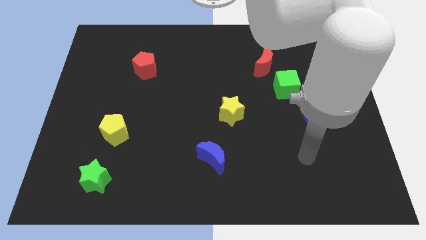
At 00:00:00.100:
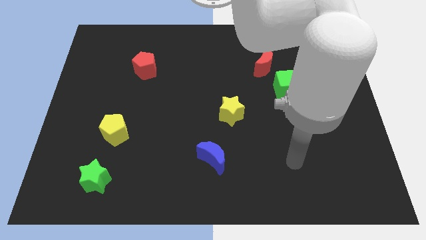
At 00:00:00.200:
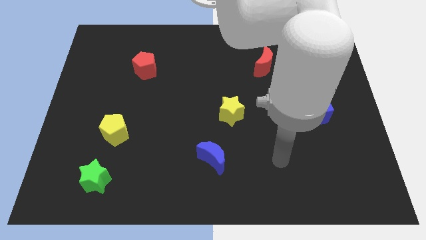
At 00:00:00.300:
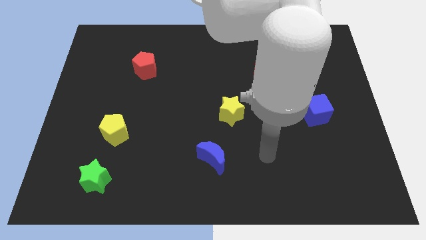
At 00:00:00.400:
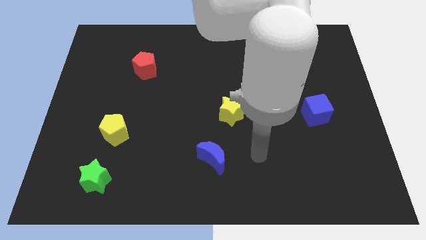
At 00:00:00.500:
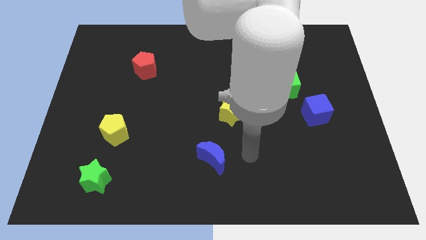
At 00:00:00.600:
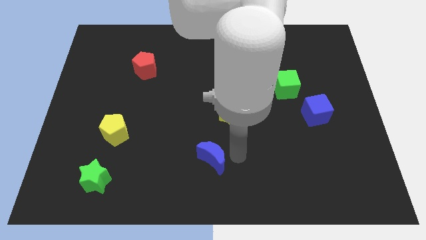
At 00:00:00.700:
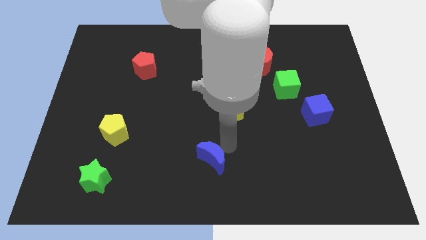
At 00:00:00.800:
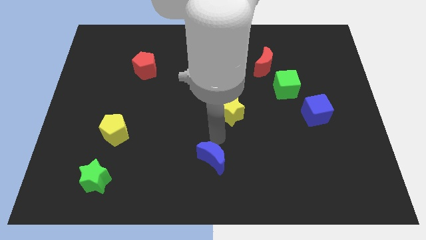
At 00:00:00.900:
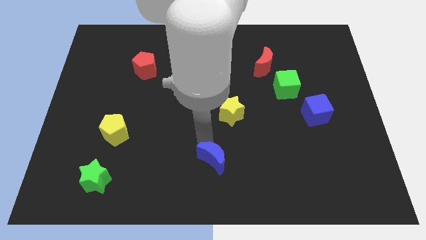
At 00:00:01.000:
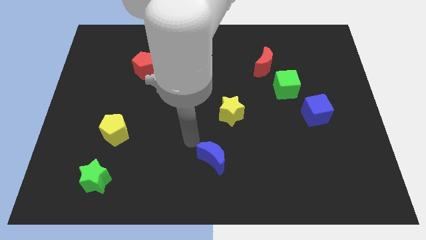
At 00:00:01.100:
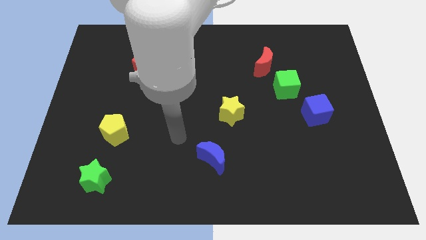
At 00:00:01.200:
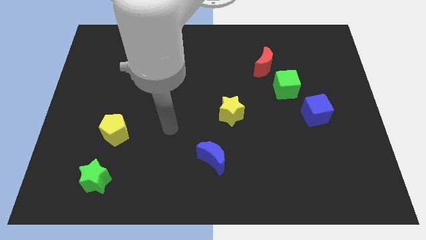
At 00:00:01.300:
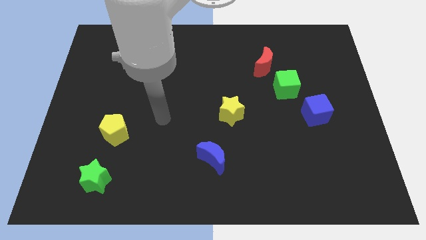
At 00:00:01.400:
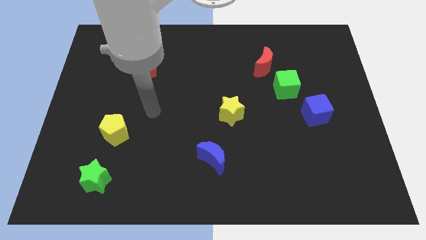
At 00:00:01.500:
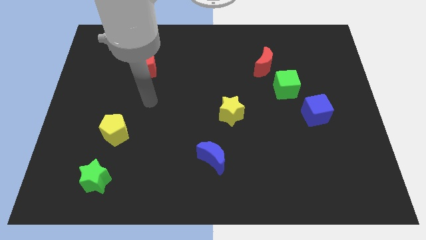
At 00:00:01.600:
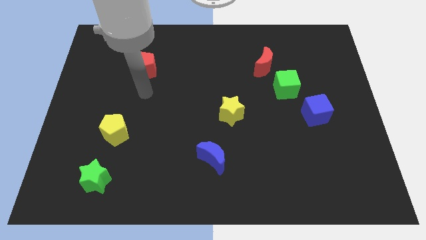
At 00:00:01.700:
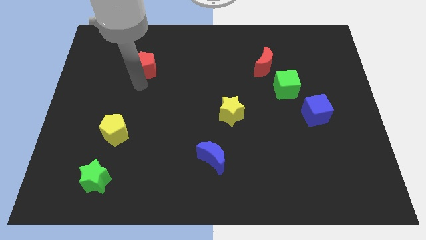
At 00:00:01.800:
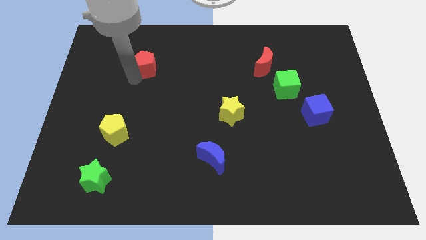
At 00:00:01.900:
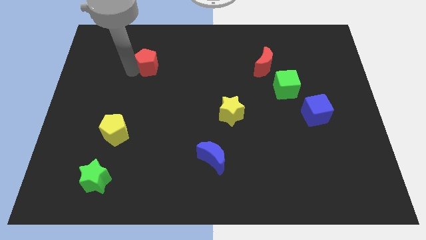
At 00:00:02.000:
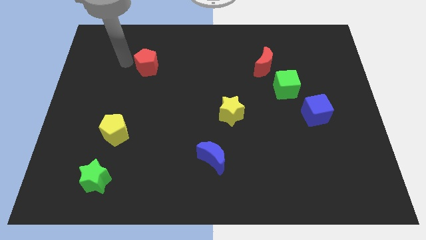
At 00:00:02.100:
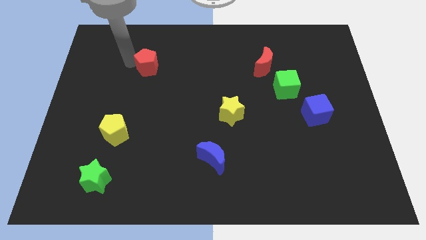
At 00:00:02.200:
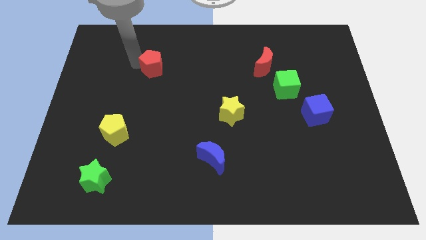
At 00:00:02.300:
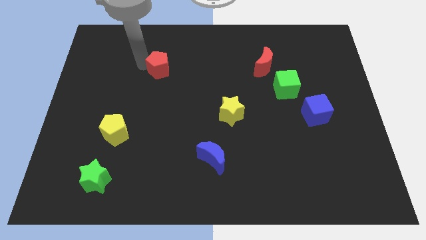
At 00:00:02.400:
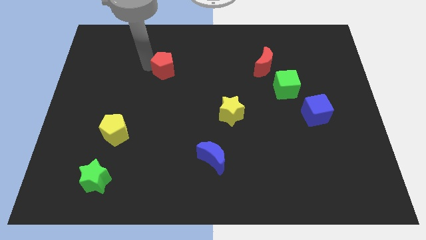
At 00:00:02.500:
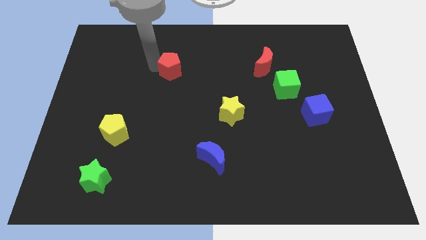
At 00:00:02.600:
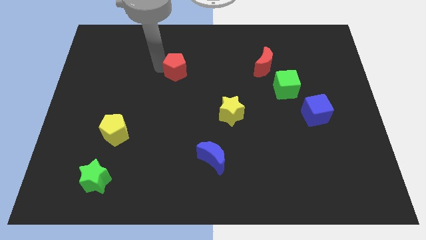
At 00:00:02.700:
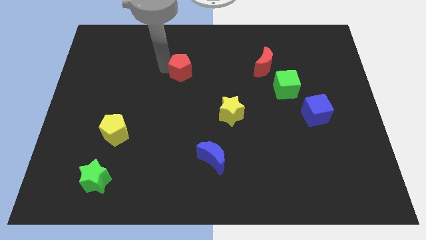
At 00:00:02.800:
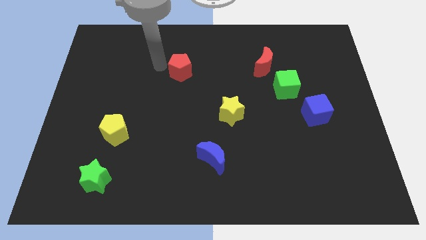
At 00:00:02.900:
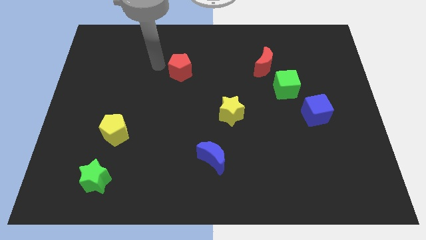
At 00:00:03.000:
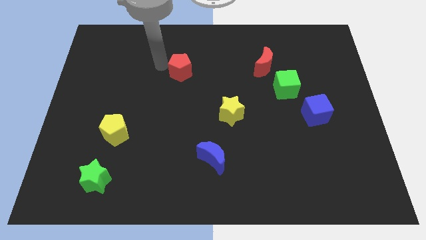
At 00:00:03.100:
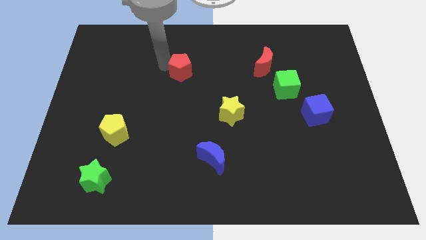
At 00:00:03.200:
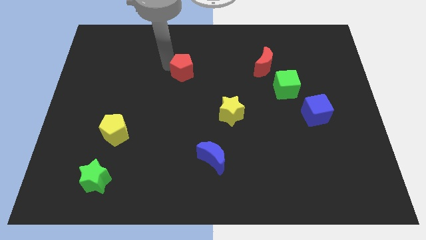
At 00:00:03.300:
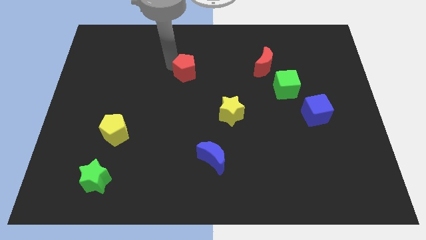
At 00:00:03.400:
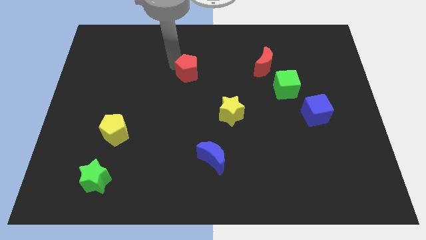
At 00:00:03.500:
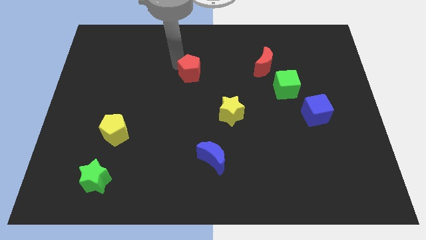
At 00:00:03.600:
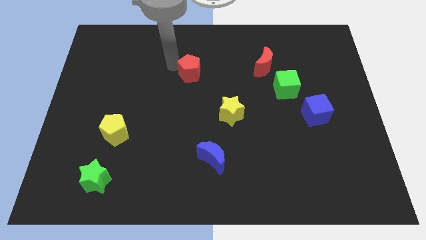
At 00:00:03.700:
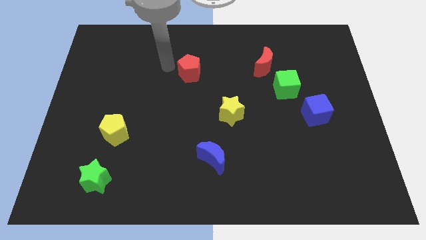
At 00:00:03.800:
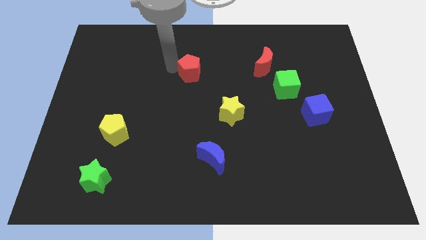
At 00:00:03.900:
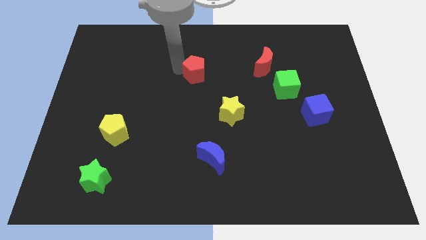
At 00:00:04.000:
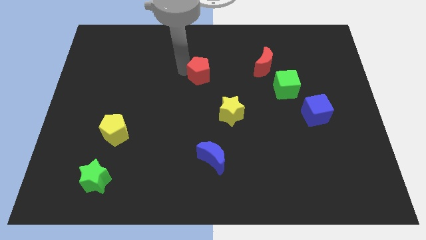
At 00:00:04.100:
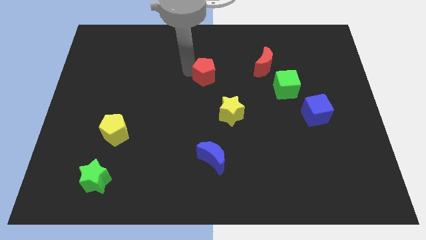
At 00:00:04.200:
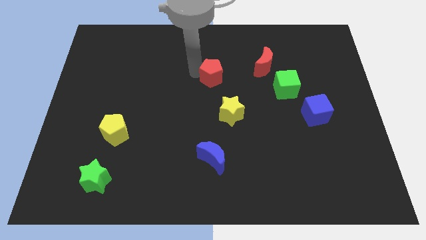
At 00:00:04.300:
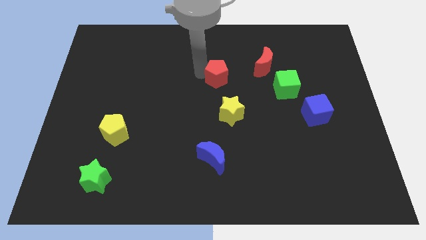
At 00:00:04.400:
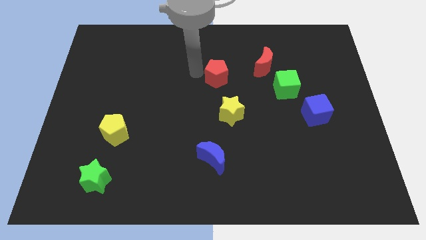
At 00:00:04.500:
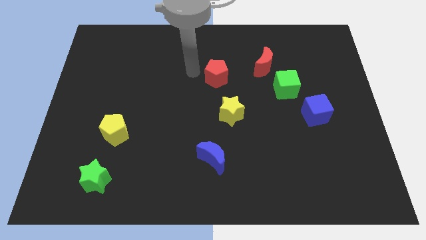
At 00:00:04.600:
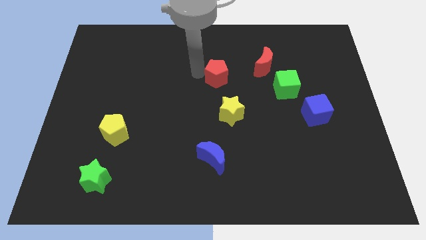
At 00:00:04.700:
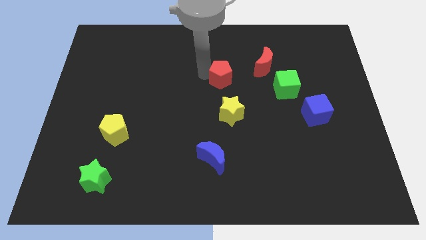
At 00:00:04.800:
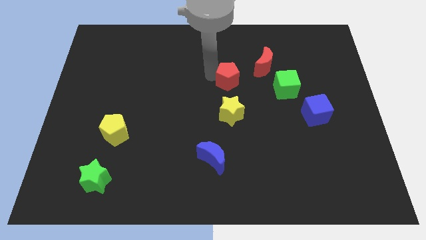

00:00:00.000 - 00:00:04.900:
put the red pentagon diagonally down and to the left of the red moon

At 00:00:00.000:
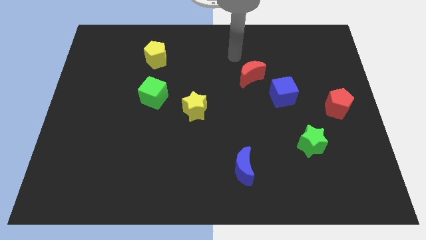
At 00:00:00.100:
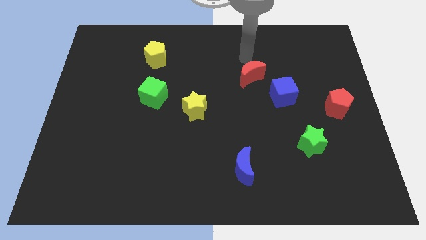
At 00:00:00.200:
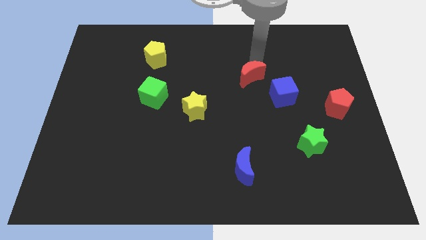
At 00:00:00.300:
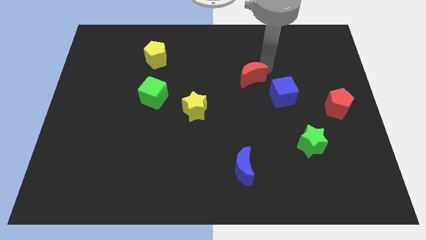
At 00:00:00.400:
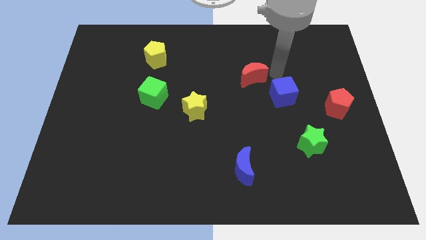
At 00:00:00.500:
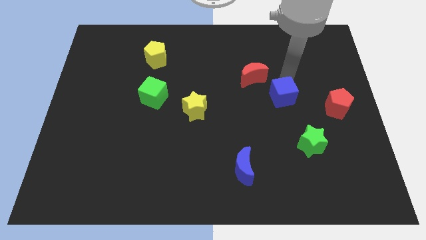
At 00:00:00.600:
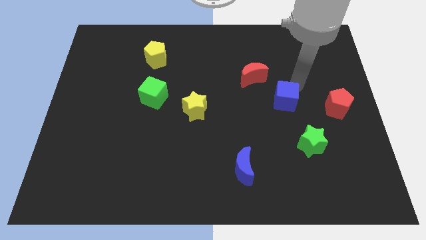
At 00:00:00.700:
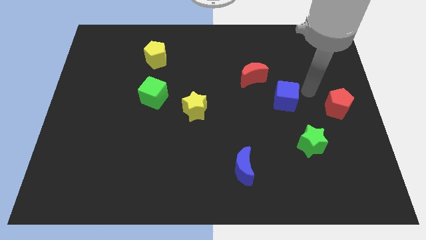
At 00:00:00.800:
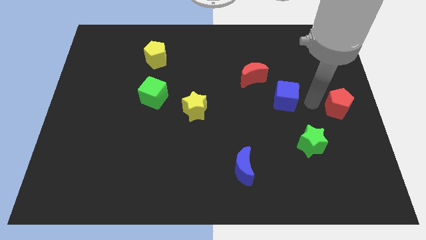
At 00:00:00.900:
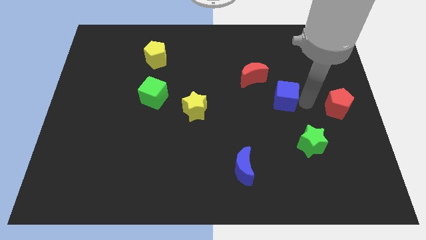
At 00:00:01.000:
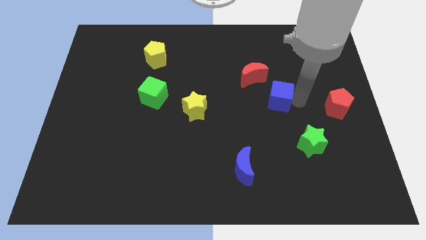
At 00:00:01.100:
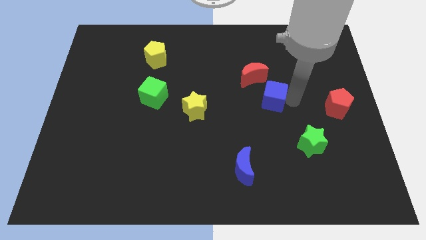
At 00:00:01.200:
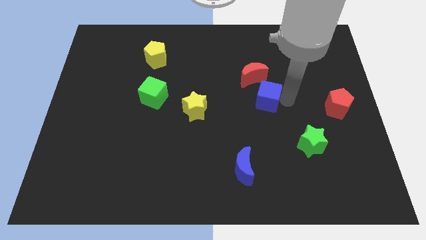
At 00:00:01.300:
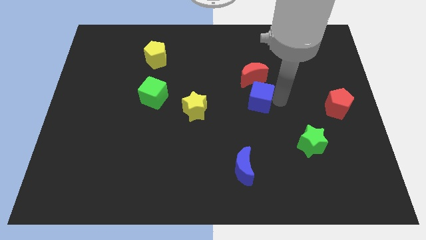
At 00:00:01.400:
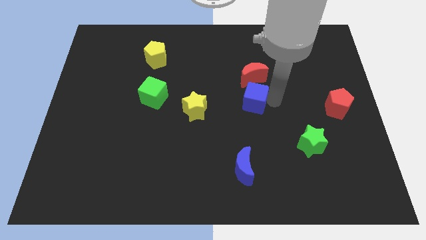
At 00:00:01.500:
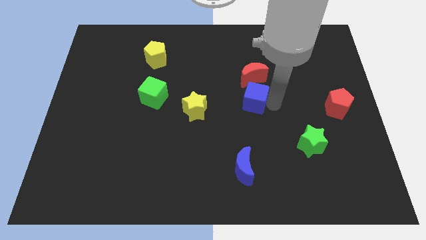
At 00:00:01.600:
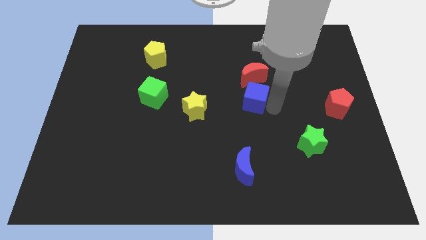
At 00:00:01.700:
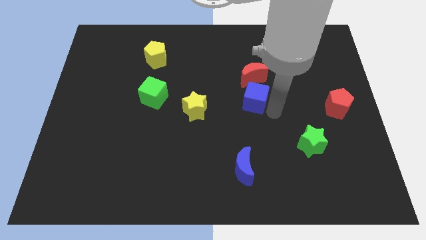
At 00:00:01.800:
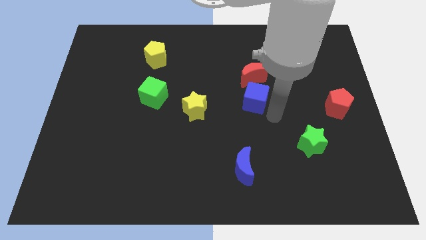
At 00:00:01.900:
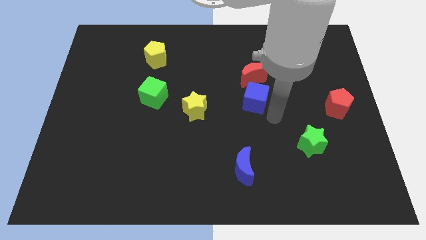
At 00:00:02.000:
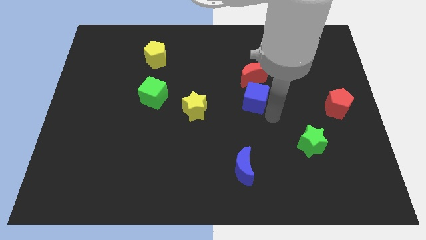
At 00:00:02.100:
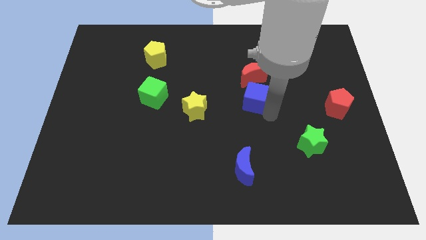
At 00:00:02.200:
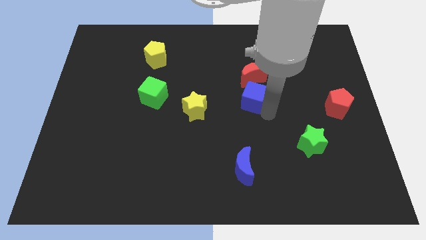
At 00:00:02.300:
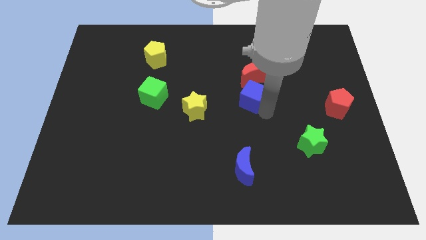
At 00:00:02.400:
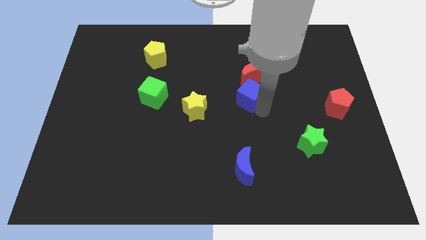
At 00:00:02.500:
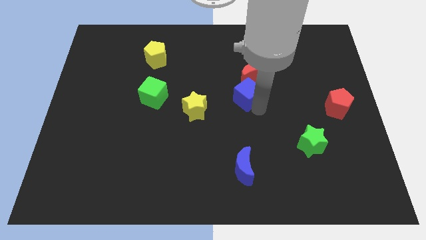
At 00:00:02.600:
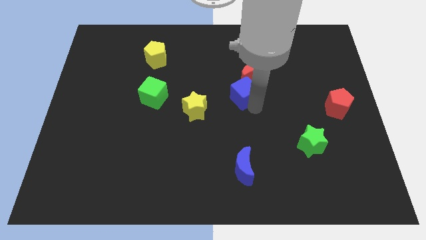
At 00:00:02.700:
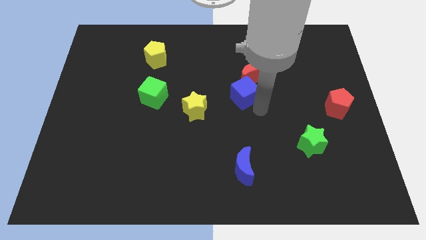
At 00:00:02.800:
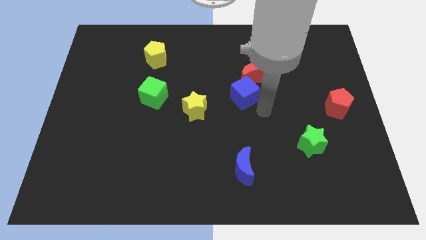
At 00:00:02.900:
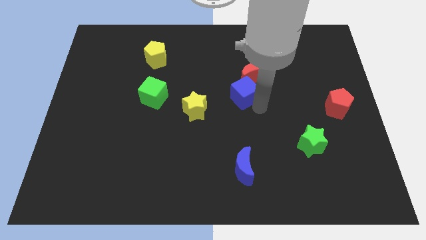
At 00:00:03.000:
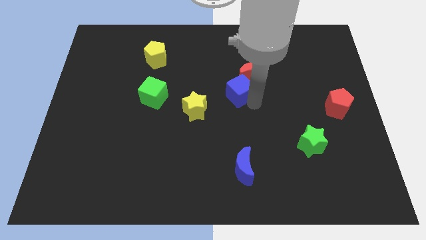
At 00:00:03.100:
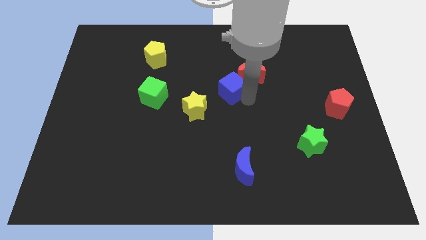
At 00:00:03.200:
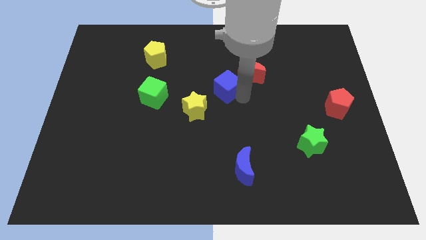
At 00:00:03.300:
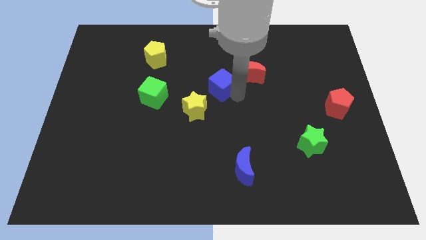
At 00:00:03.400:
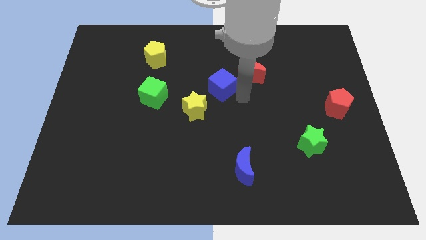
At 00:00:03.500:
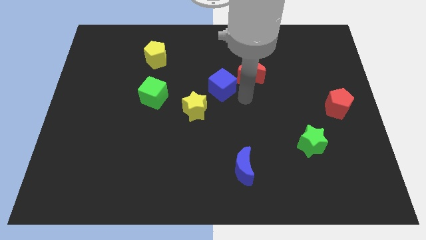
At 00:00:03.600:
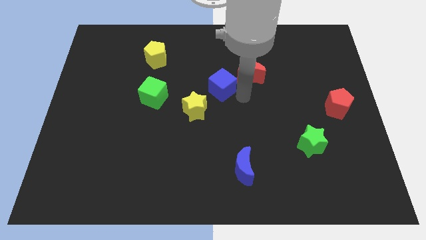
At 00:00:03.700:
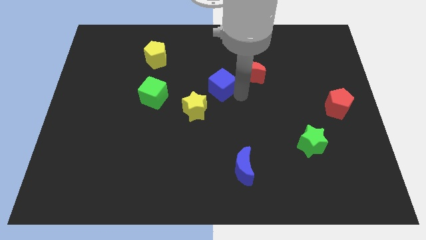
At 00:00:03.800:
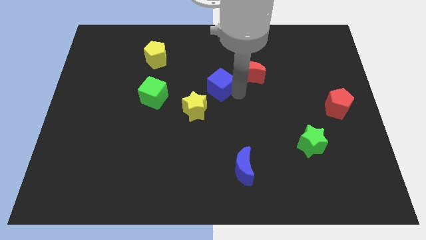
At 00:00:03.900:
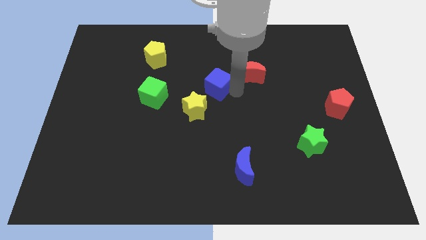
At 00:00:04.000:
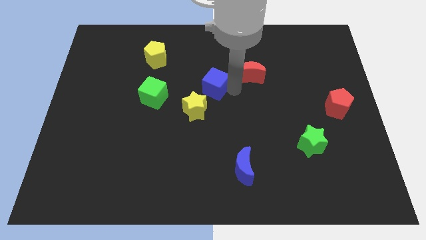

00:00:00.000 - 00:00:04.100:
slide the blue cube to the top of the yellow star
